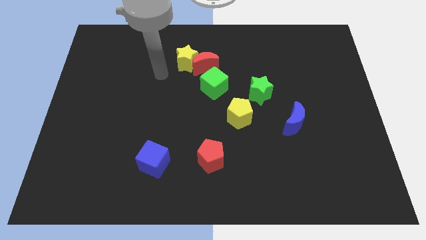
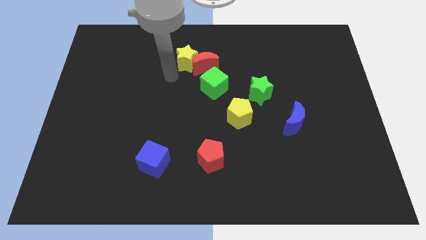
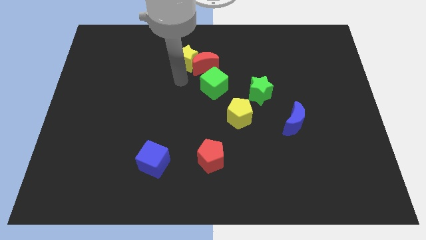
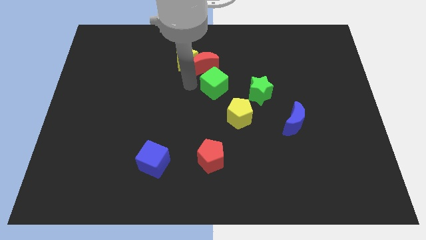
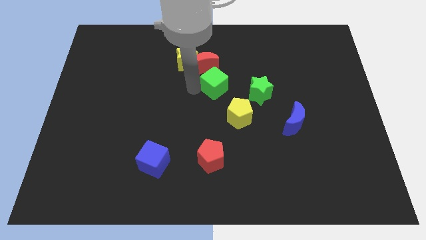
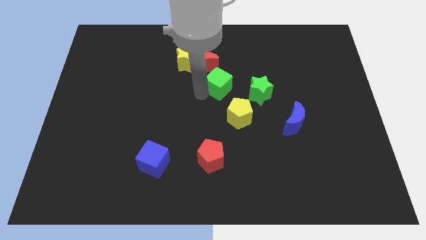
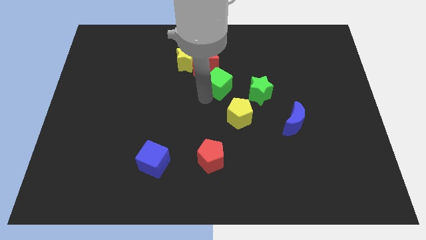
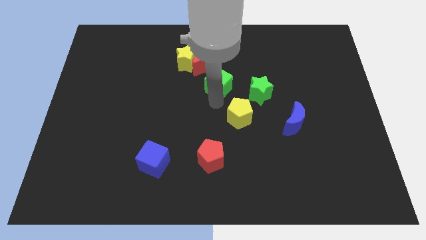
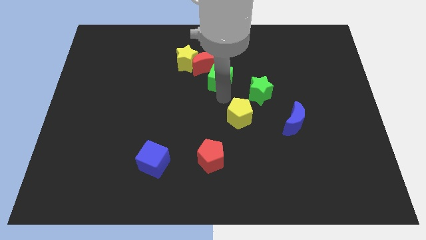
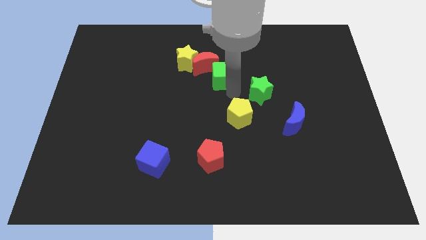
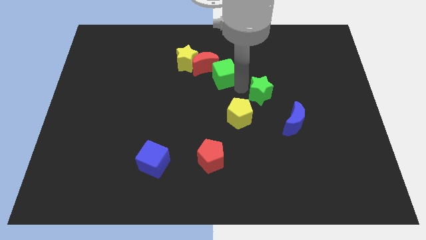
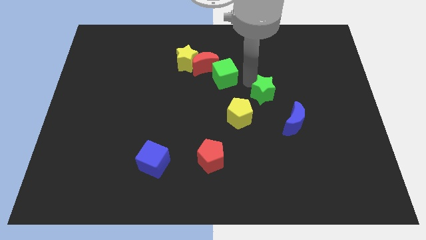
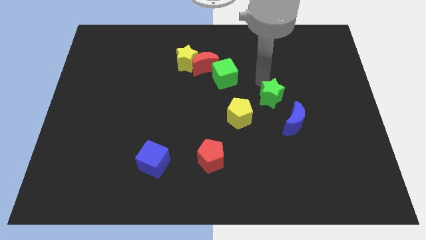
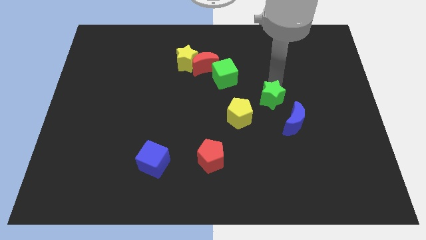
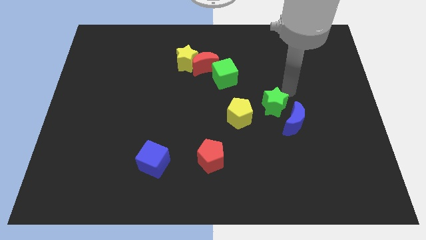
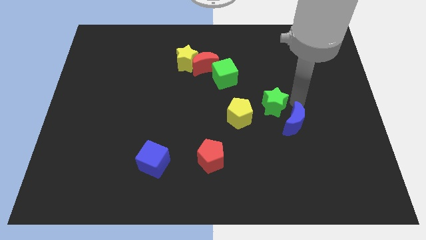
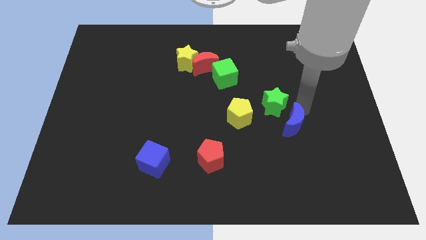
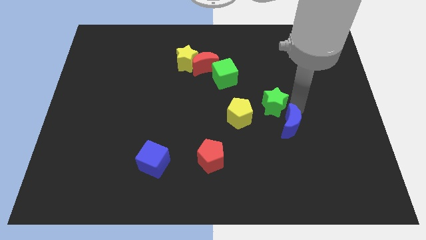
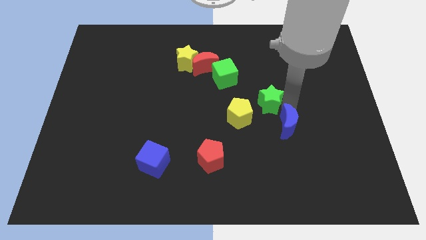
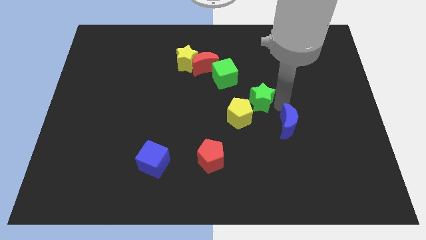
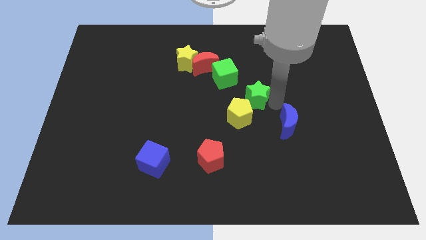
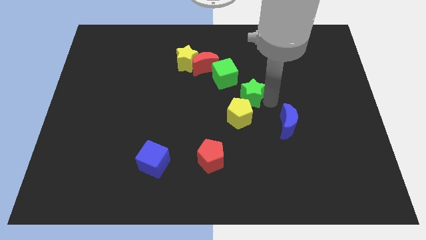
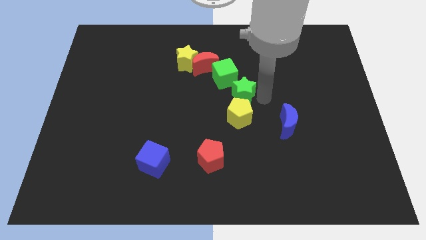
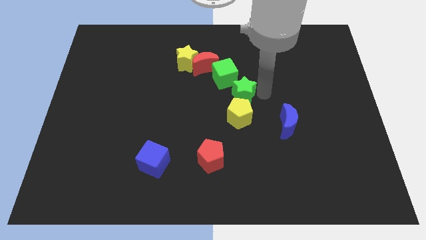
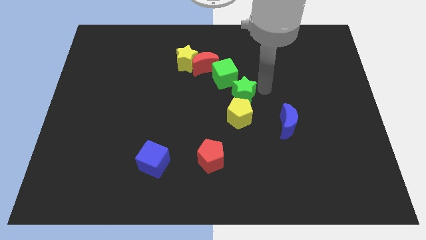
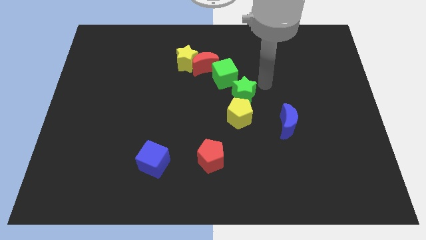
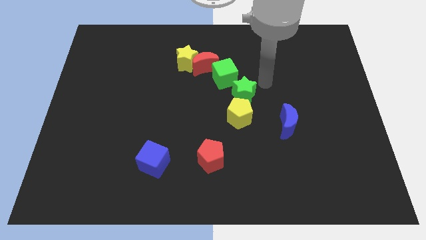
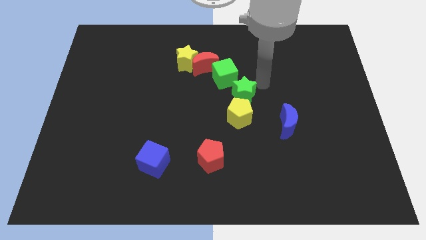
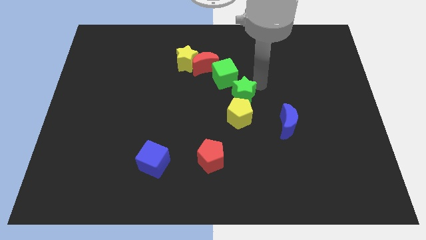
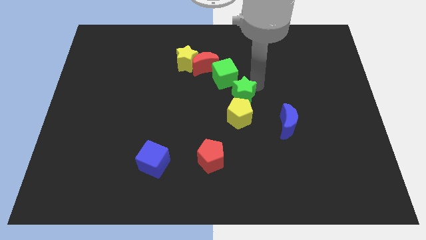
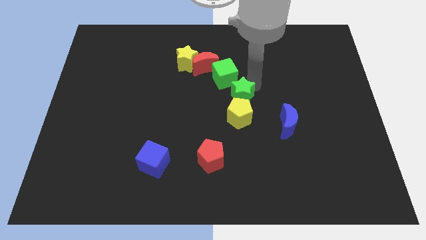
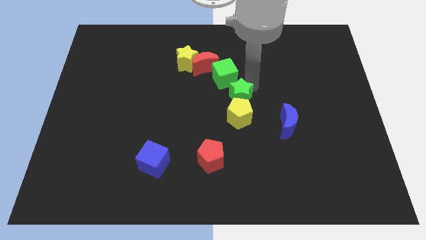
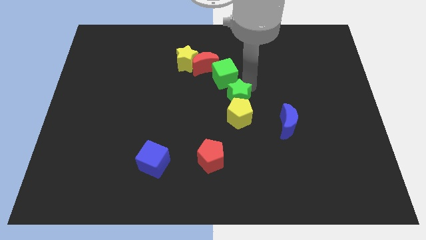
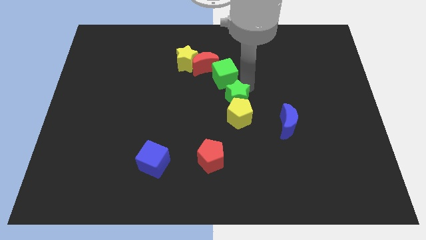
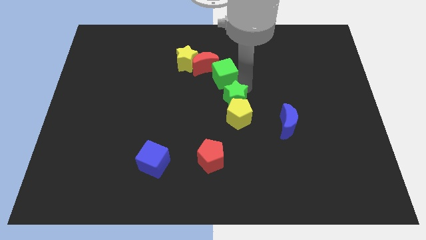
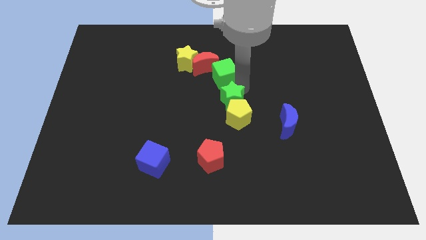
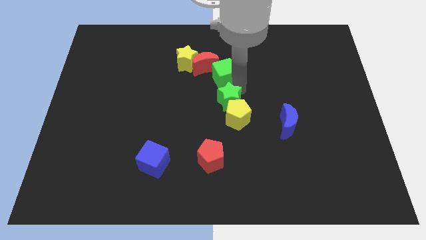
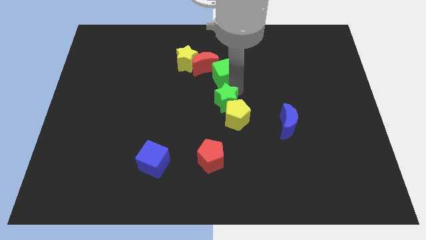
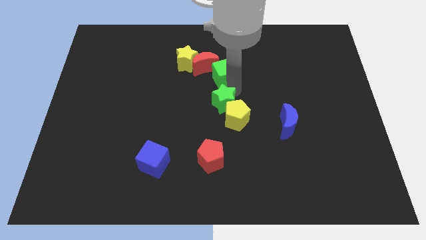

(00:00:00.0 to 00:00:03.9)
slightly slide the green star diagonally downwards and left

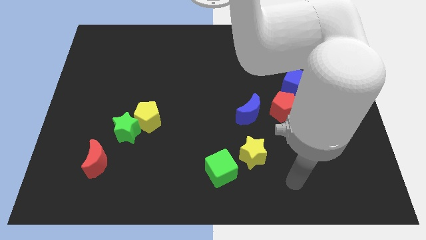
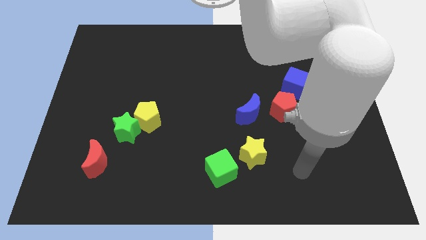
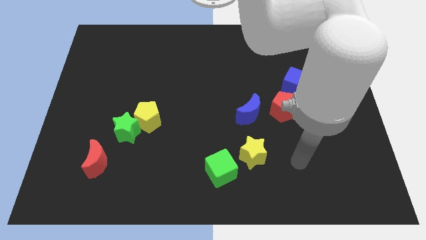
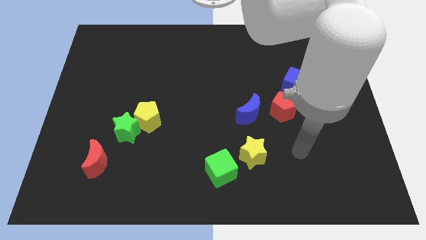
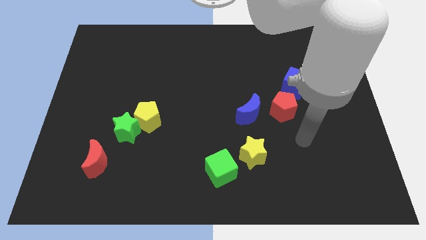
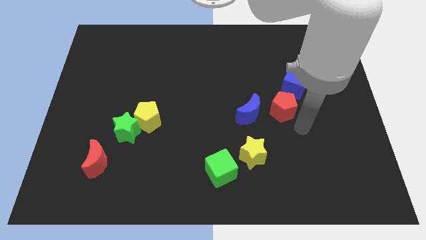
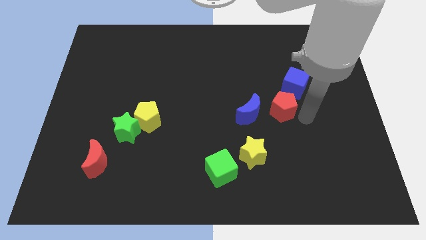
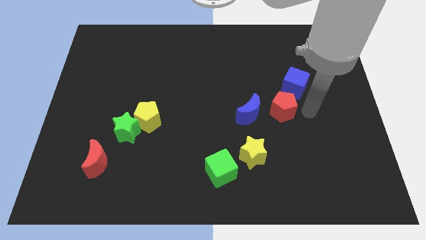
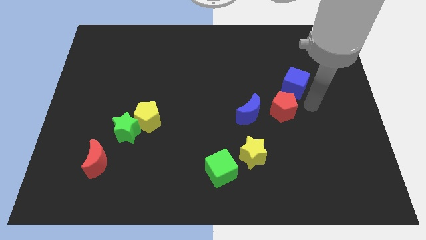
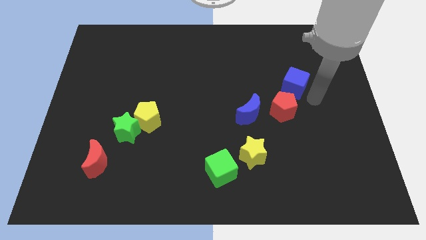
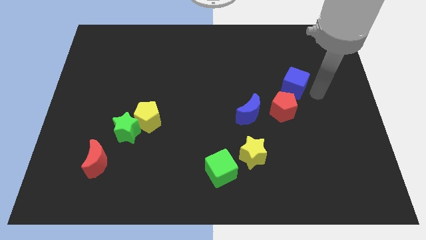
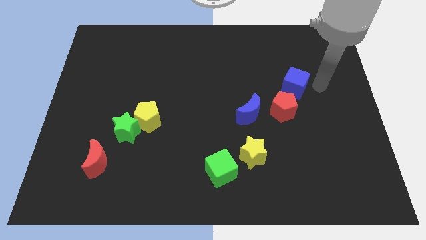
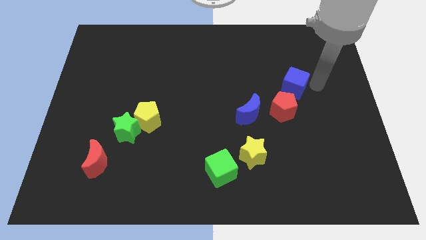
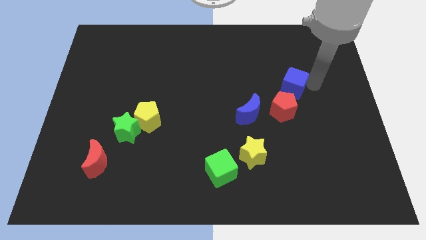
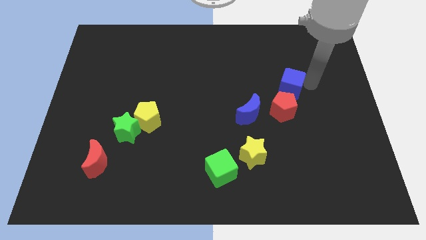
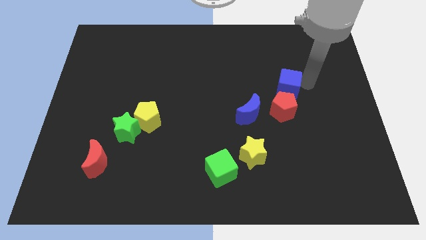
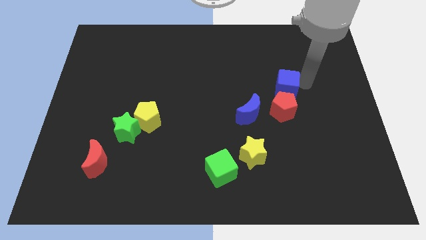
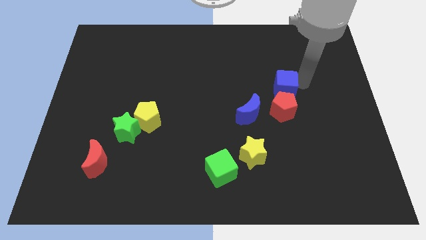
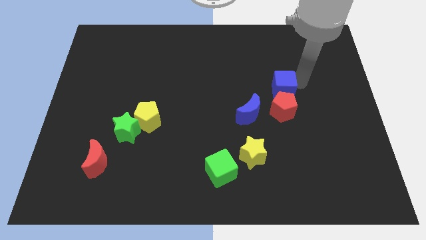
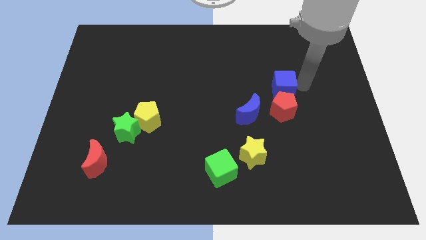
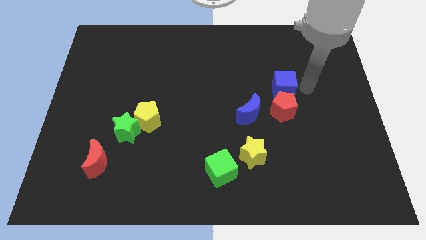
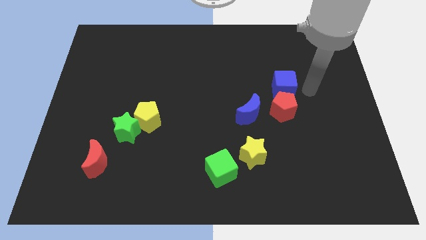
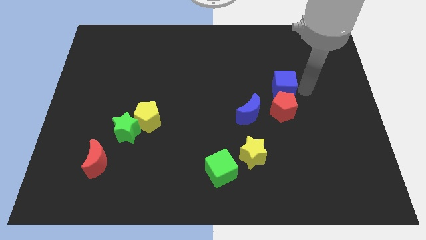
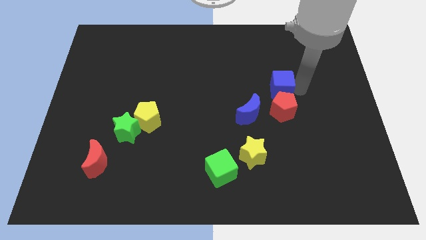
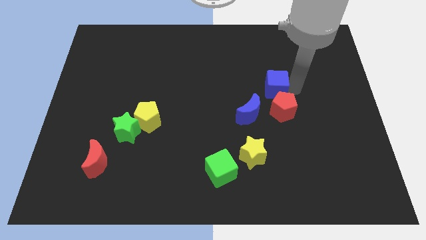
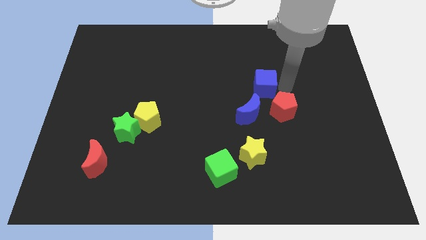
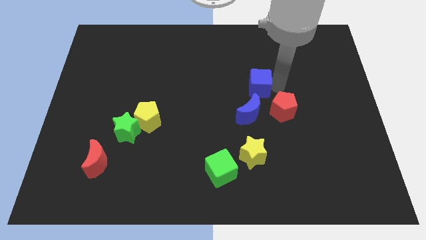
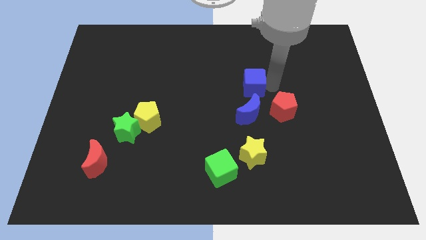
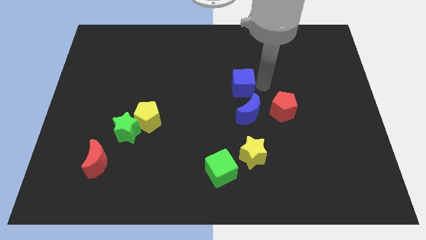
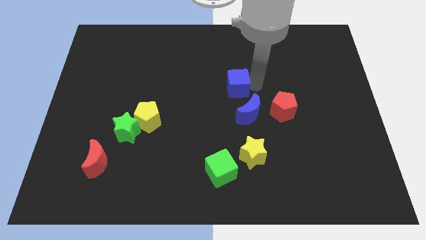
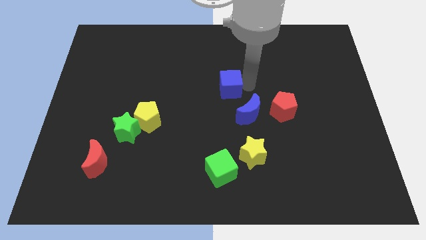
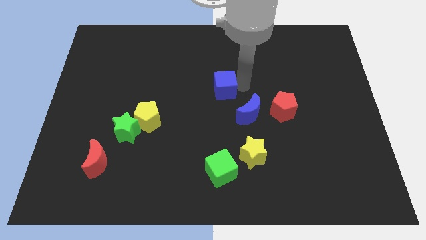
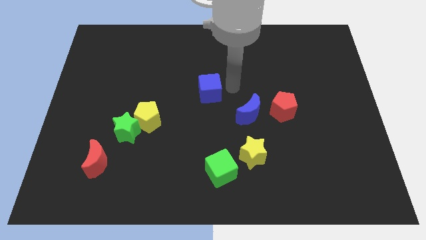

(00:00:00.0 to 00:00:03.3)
push the blue cube to the left

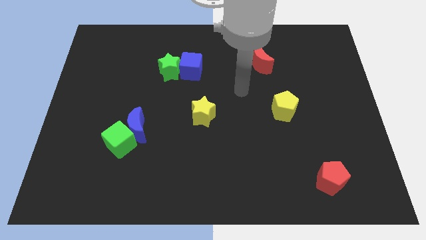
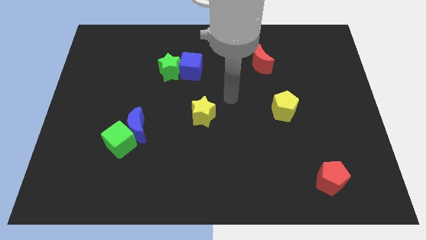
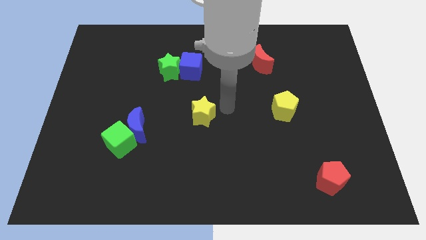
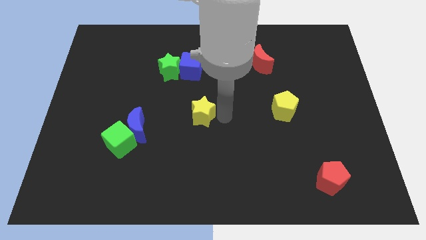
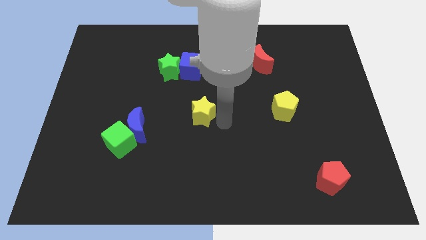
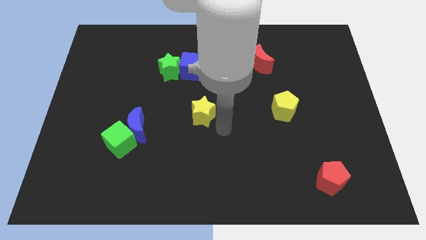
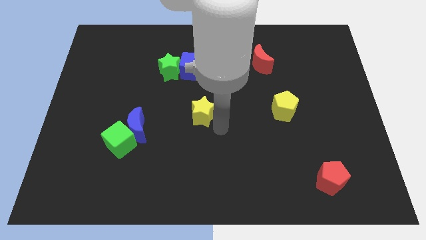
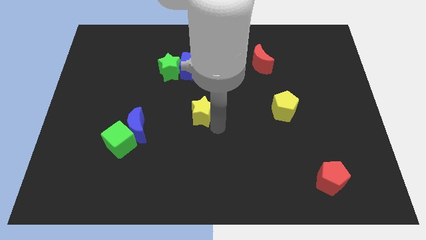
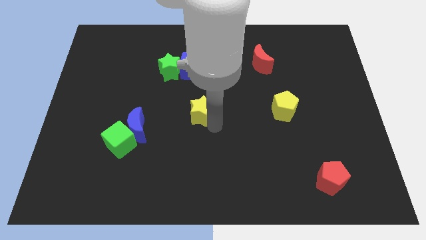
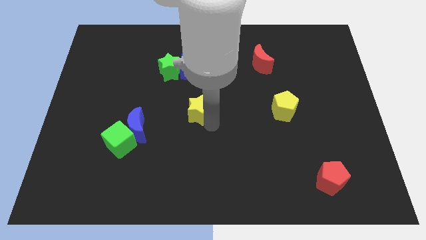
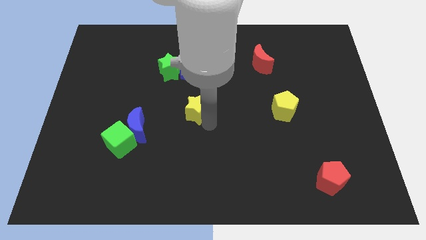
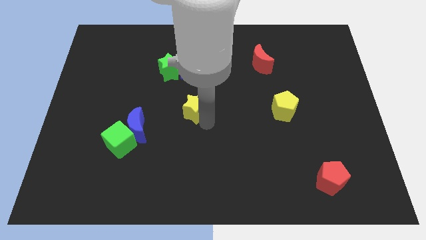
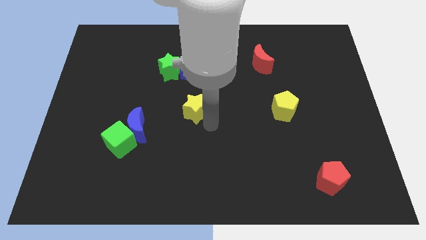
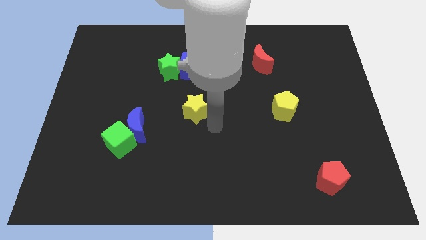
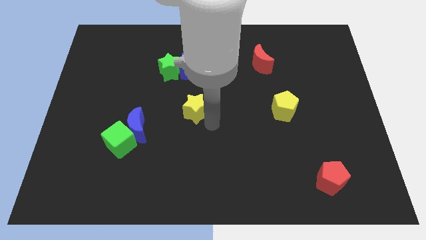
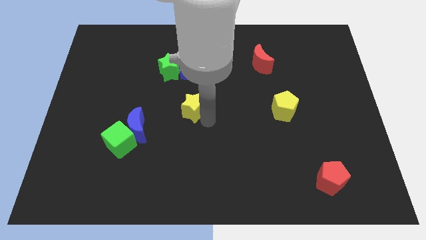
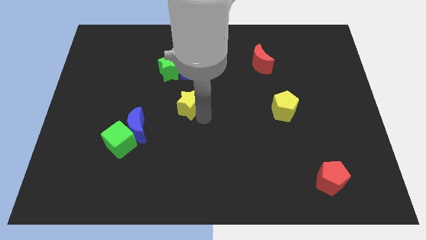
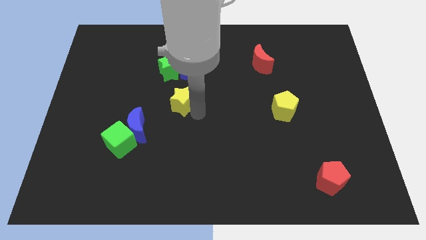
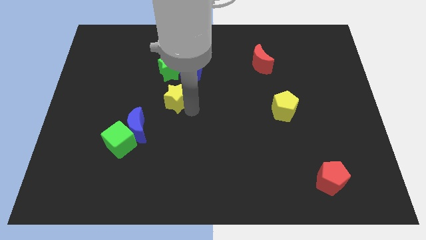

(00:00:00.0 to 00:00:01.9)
move the yellow star up and to the left diagonally somewhat
